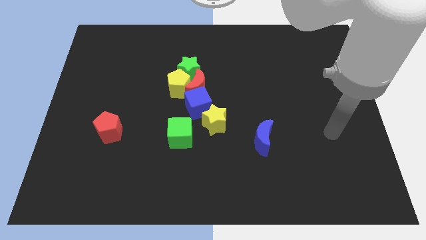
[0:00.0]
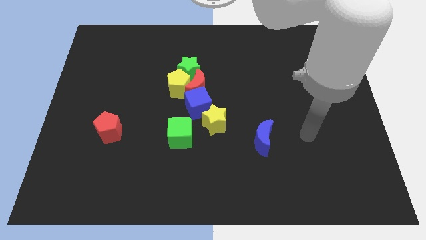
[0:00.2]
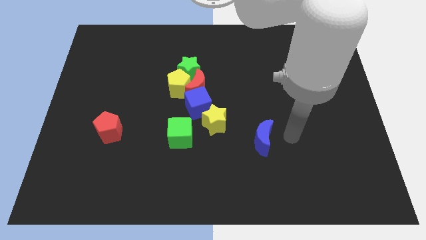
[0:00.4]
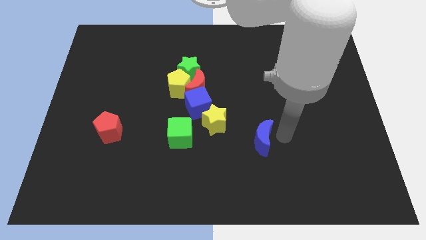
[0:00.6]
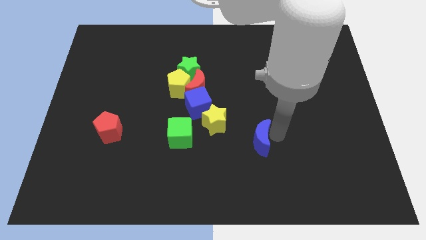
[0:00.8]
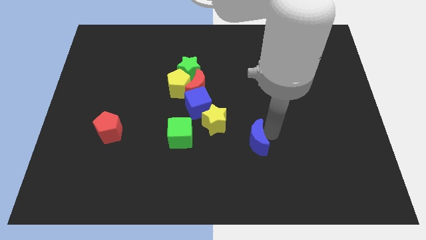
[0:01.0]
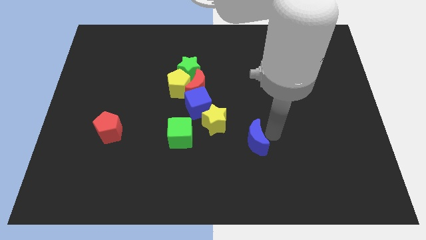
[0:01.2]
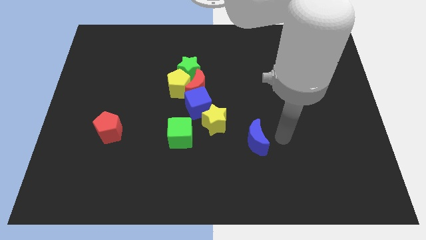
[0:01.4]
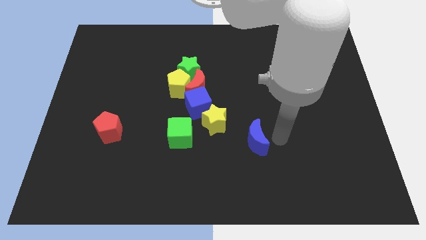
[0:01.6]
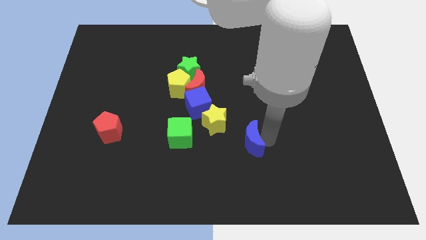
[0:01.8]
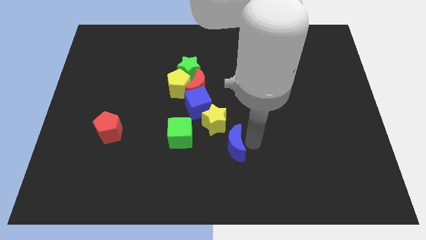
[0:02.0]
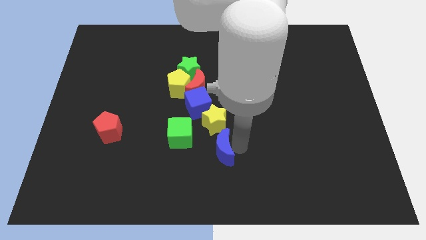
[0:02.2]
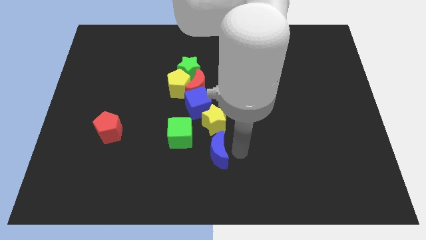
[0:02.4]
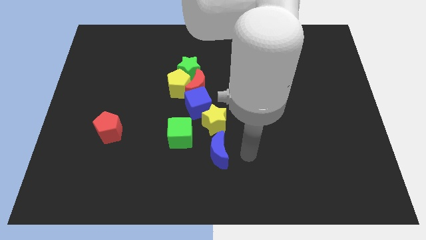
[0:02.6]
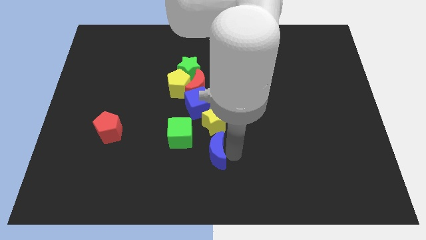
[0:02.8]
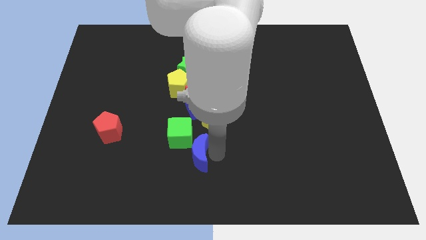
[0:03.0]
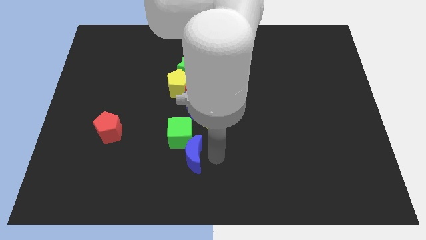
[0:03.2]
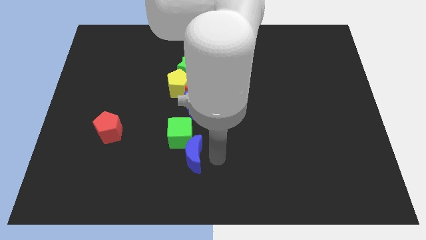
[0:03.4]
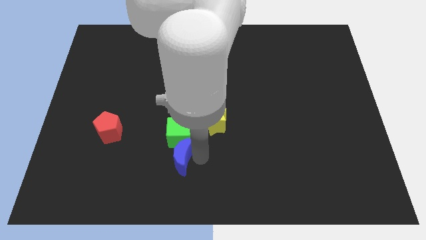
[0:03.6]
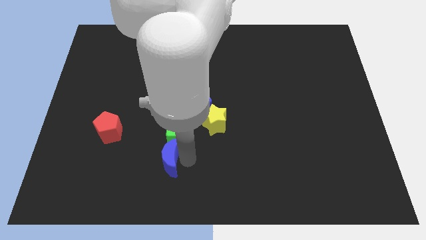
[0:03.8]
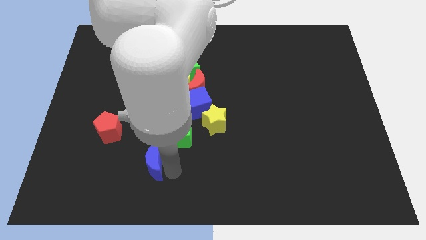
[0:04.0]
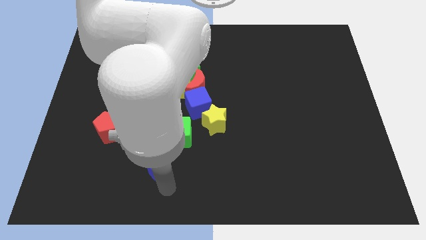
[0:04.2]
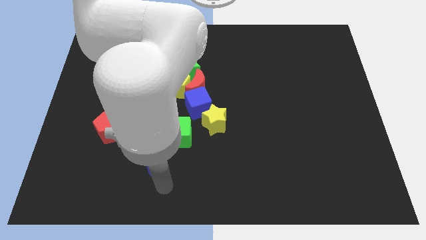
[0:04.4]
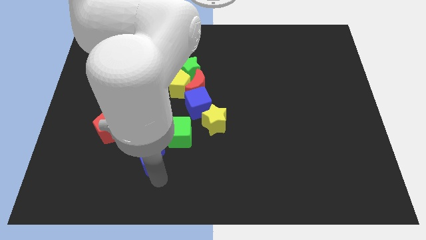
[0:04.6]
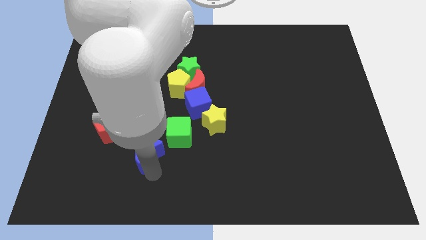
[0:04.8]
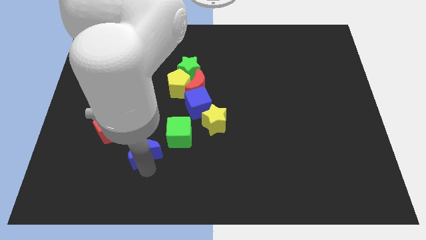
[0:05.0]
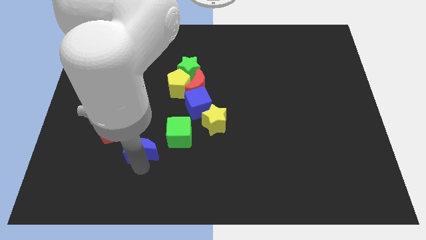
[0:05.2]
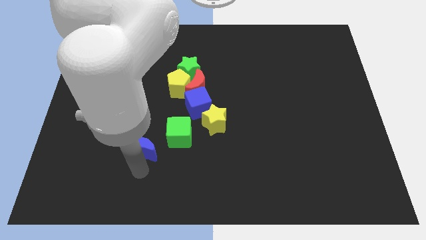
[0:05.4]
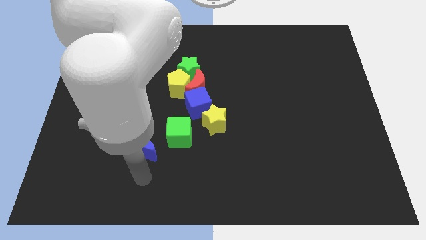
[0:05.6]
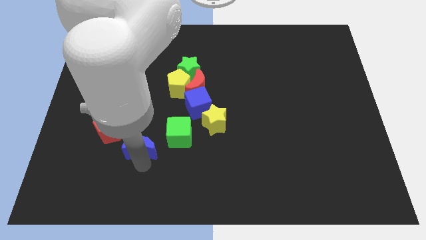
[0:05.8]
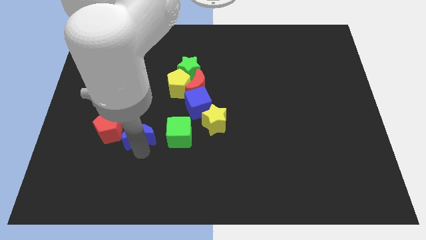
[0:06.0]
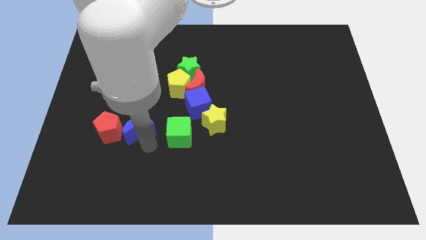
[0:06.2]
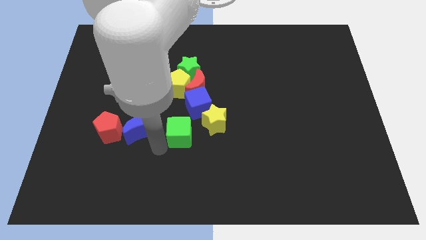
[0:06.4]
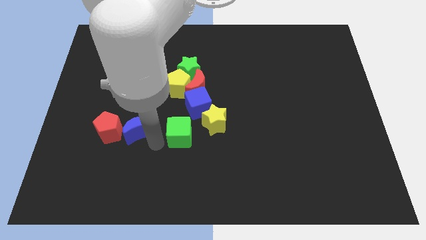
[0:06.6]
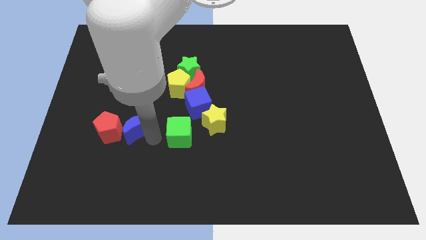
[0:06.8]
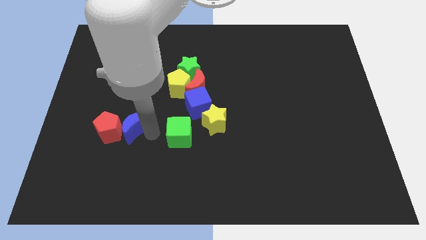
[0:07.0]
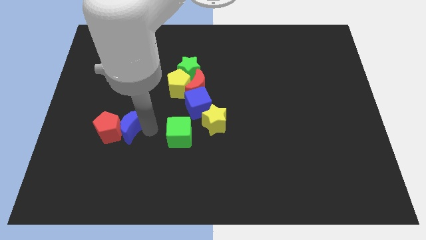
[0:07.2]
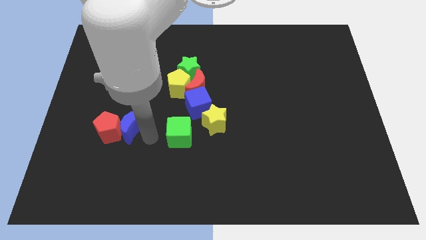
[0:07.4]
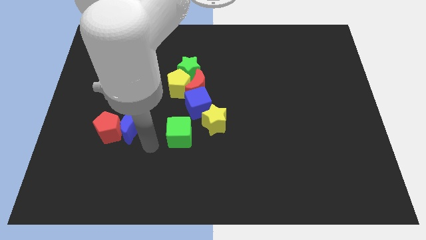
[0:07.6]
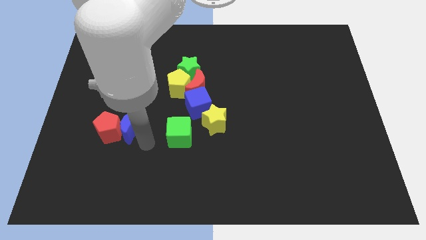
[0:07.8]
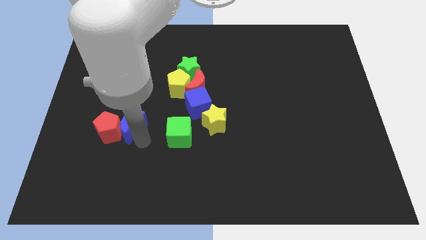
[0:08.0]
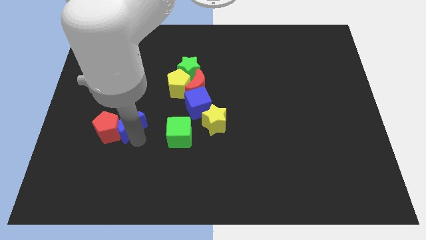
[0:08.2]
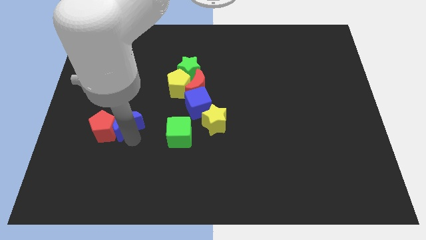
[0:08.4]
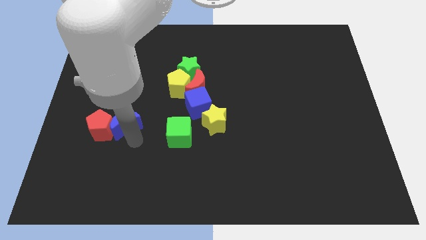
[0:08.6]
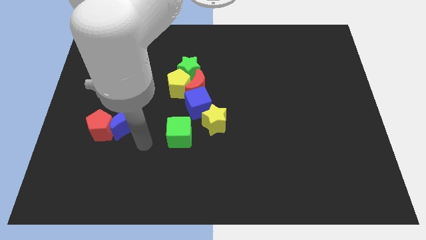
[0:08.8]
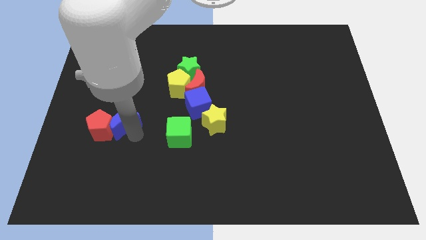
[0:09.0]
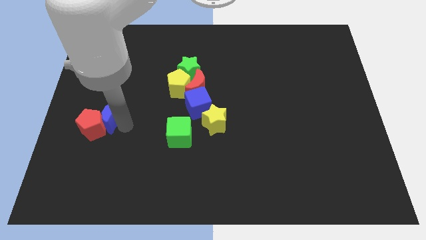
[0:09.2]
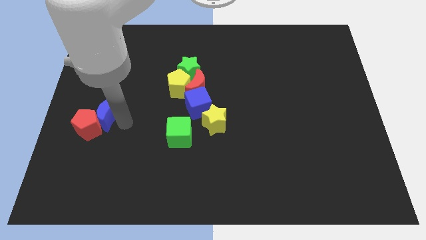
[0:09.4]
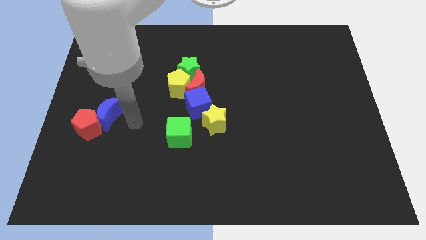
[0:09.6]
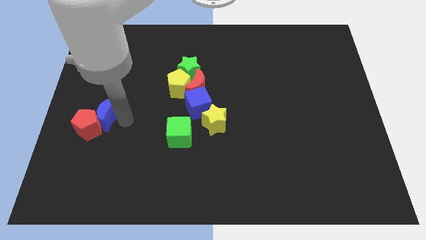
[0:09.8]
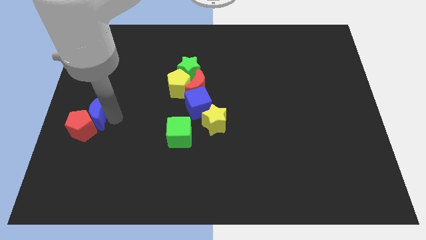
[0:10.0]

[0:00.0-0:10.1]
slide the blue moon to the left side of the board

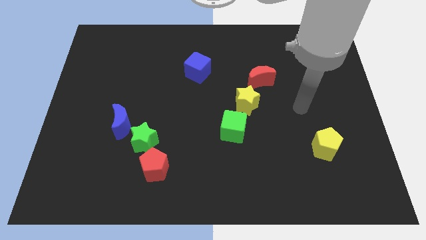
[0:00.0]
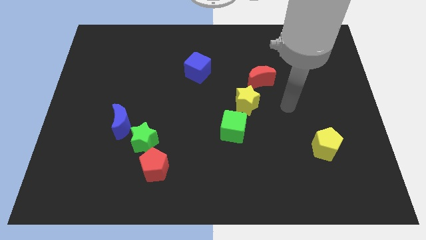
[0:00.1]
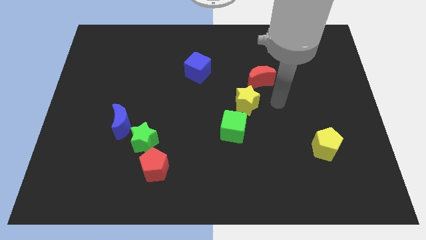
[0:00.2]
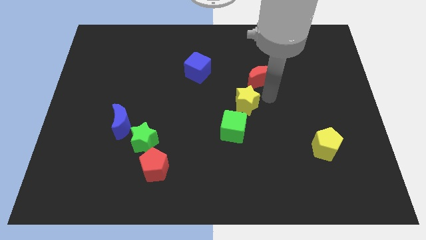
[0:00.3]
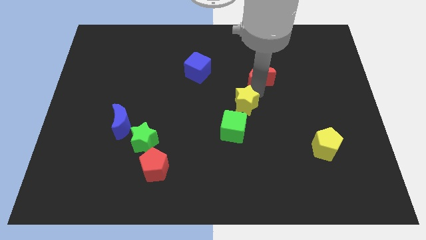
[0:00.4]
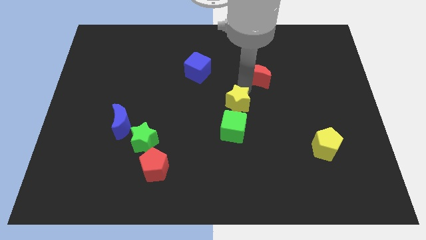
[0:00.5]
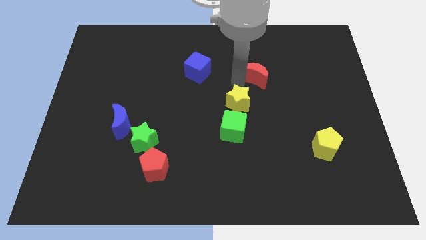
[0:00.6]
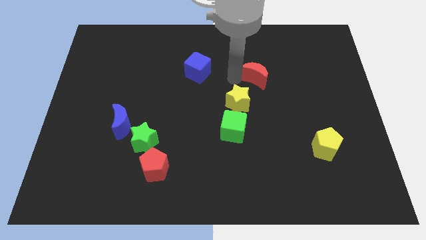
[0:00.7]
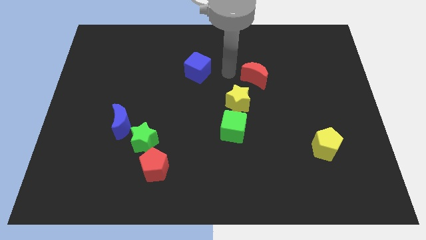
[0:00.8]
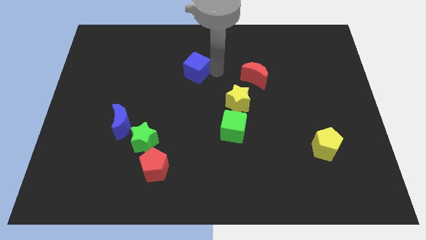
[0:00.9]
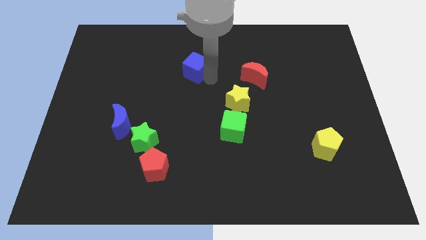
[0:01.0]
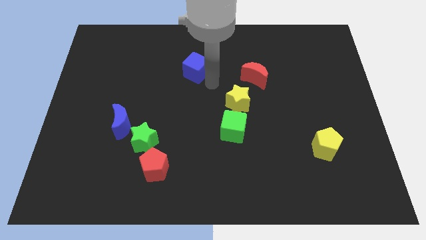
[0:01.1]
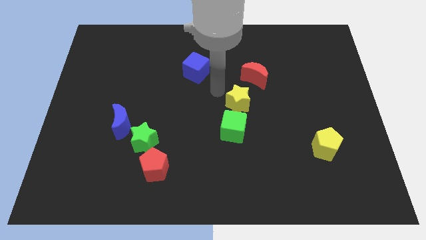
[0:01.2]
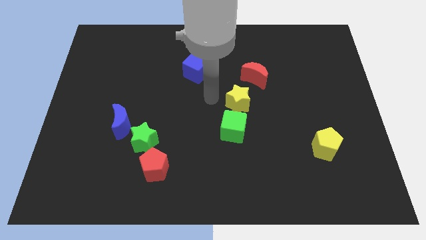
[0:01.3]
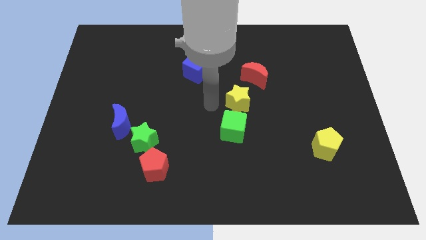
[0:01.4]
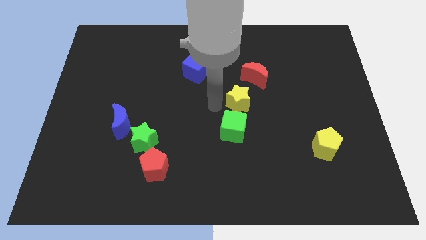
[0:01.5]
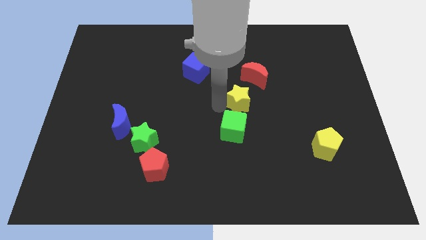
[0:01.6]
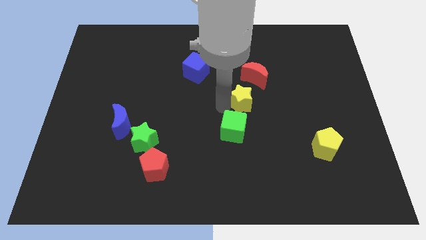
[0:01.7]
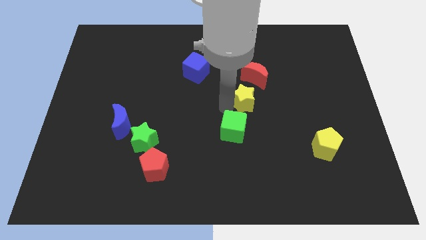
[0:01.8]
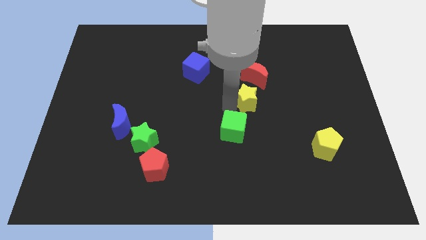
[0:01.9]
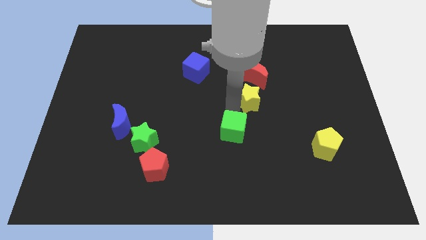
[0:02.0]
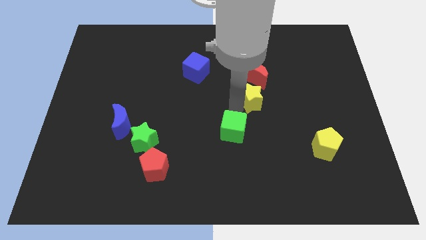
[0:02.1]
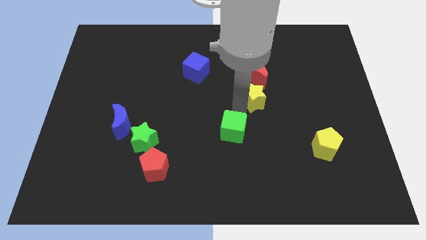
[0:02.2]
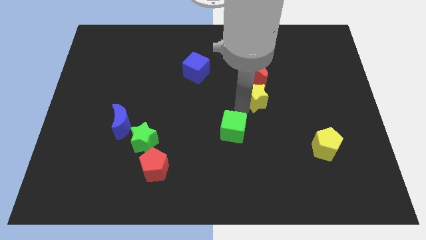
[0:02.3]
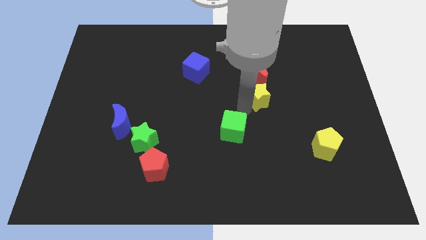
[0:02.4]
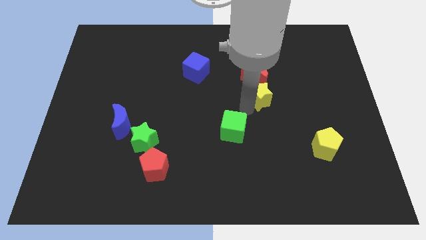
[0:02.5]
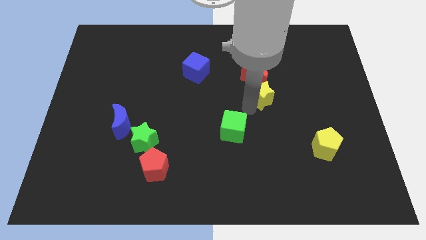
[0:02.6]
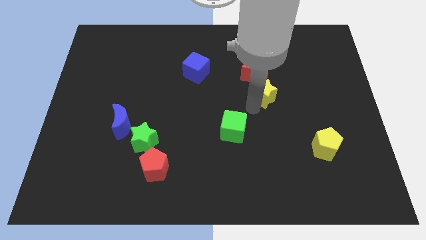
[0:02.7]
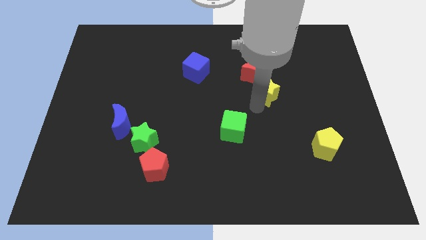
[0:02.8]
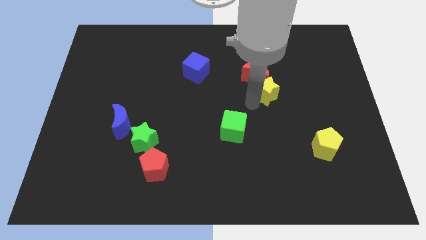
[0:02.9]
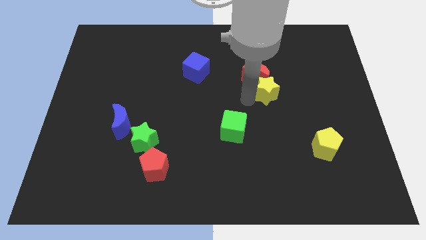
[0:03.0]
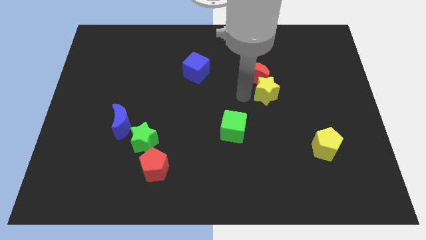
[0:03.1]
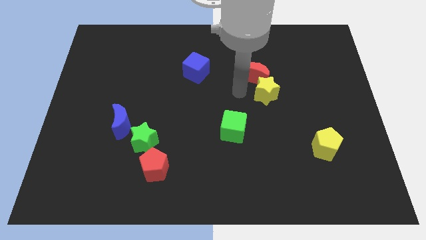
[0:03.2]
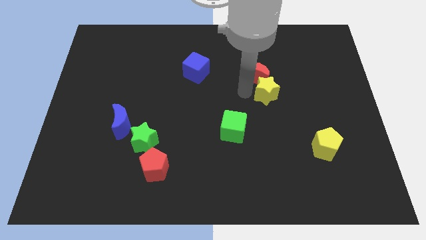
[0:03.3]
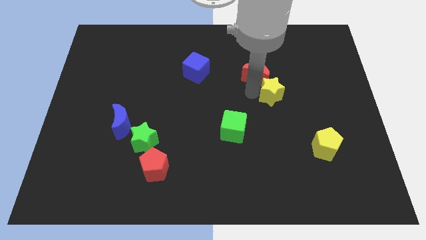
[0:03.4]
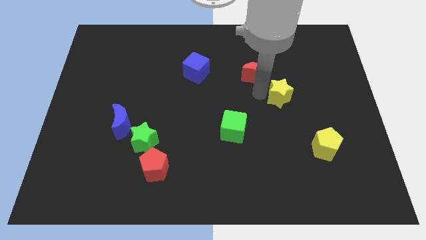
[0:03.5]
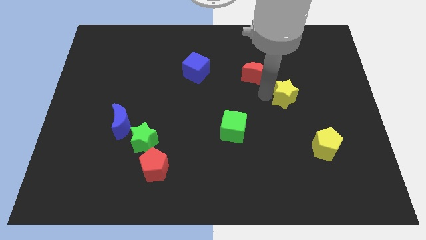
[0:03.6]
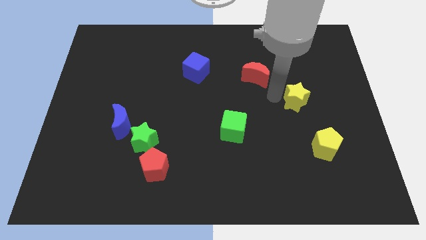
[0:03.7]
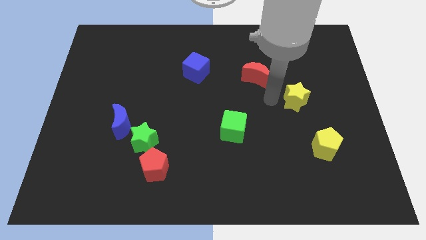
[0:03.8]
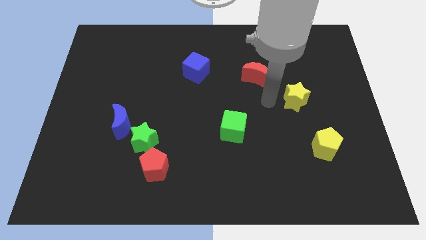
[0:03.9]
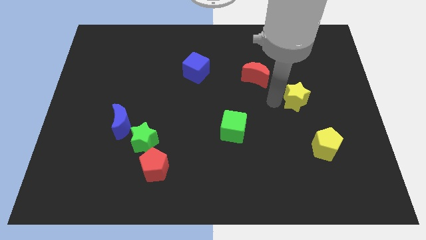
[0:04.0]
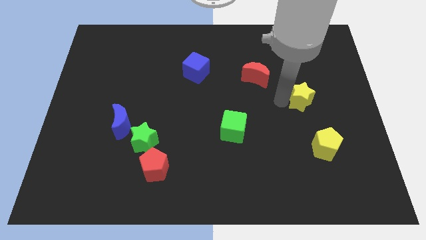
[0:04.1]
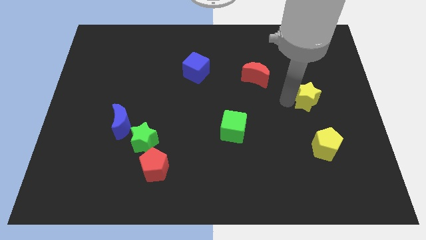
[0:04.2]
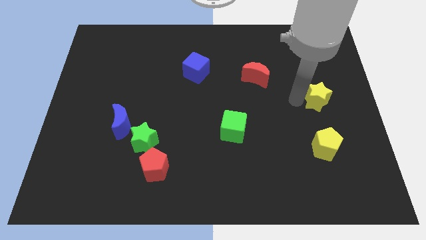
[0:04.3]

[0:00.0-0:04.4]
slide the yellow star to the right side of the board
